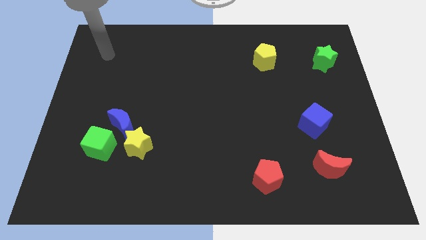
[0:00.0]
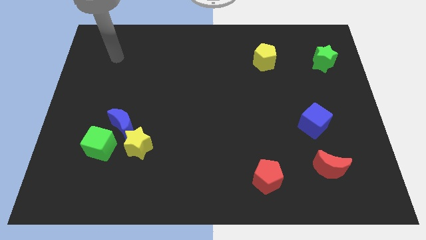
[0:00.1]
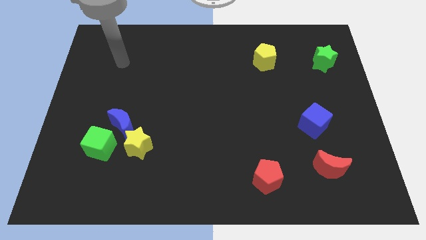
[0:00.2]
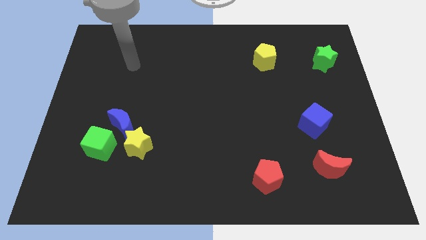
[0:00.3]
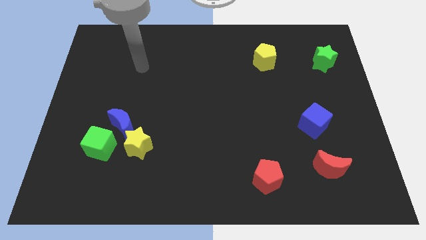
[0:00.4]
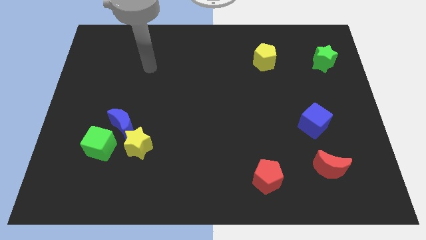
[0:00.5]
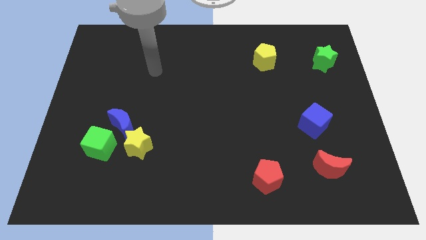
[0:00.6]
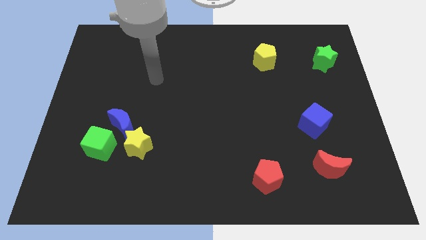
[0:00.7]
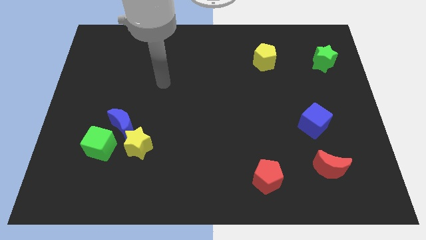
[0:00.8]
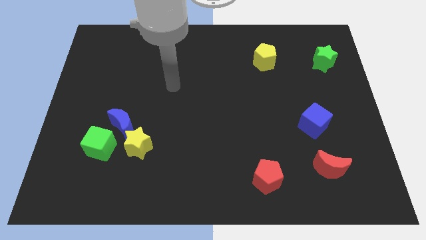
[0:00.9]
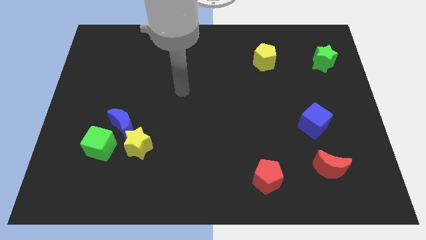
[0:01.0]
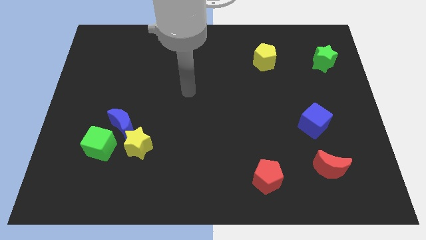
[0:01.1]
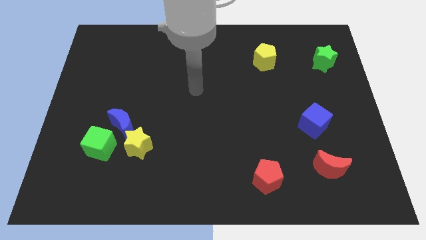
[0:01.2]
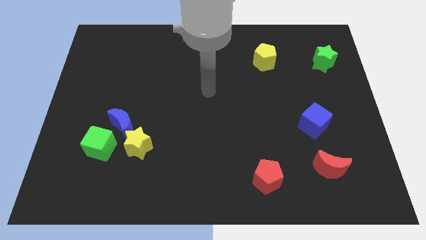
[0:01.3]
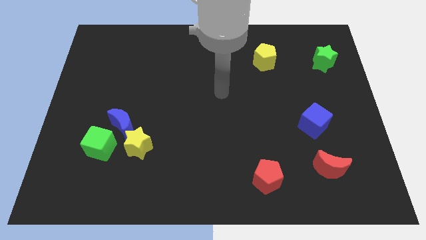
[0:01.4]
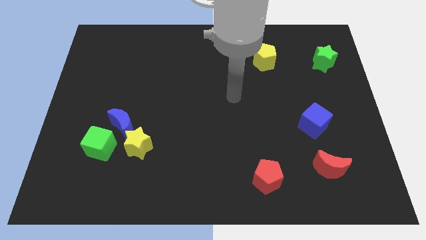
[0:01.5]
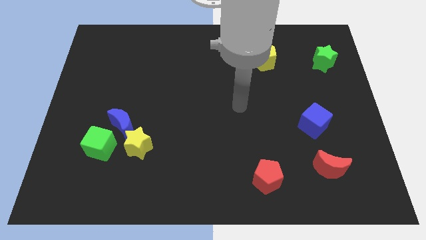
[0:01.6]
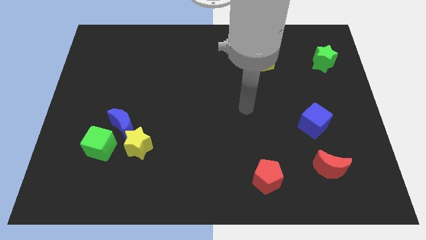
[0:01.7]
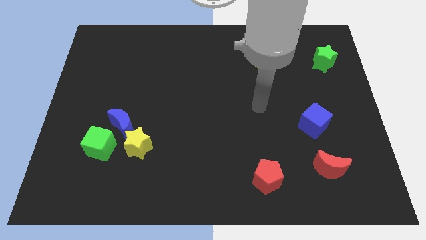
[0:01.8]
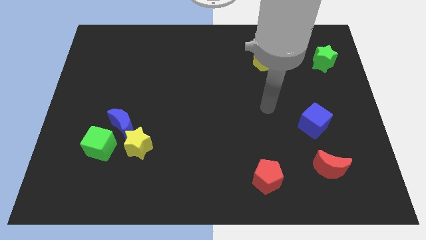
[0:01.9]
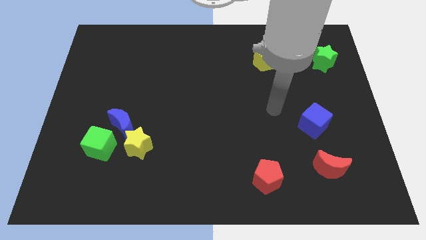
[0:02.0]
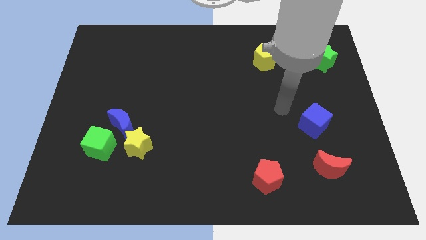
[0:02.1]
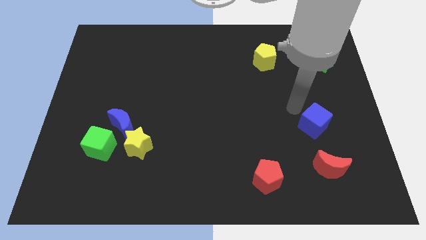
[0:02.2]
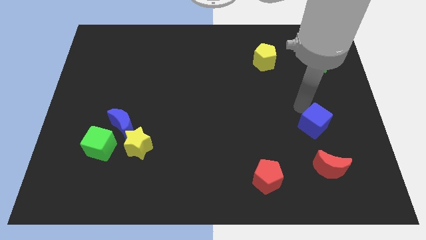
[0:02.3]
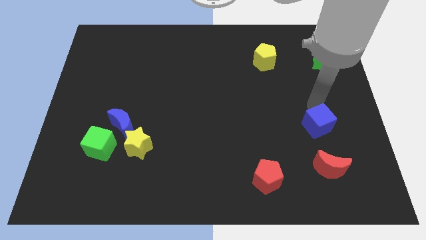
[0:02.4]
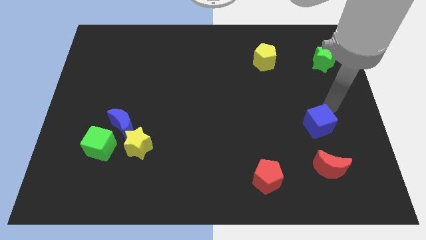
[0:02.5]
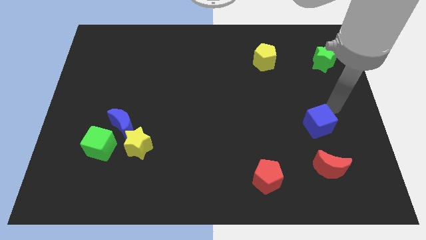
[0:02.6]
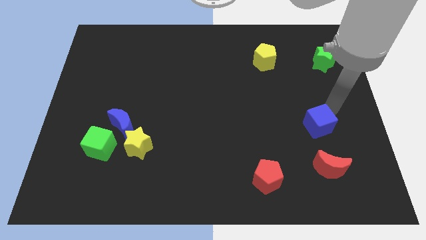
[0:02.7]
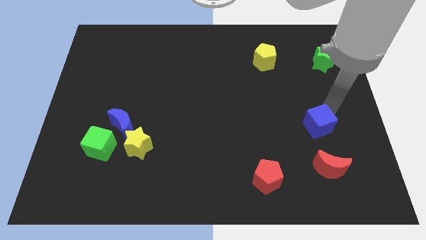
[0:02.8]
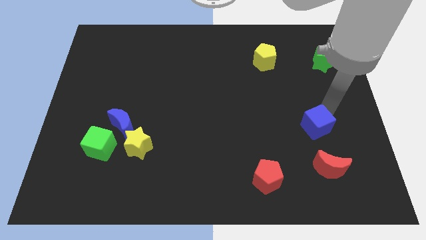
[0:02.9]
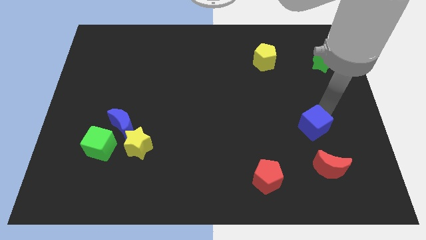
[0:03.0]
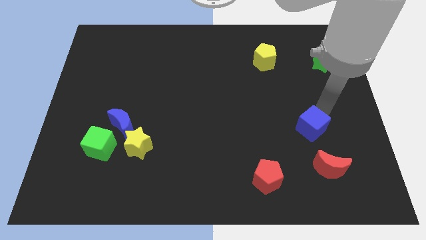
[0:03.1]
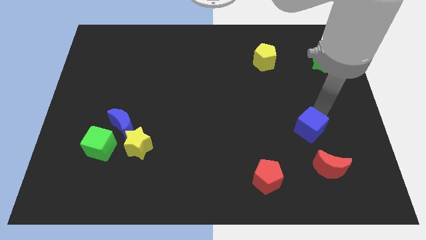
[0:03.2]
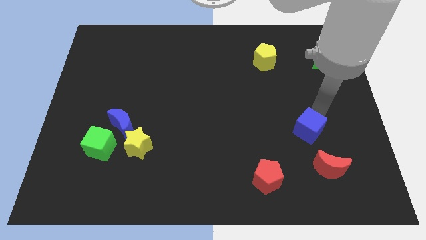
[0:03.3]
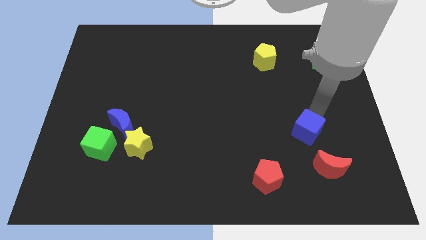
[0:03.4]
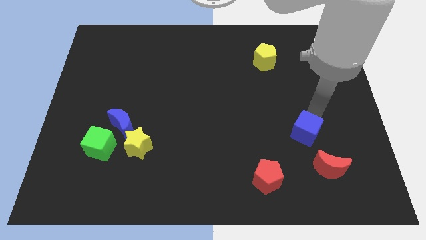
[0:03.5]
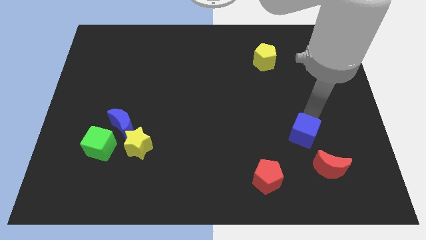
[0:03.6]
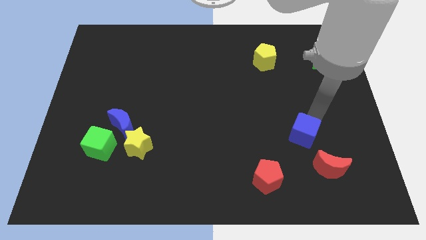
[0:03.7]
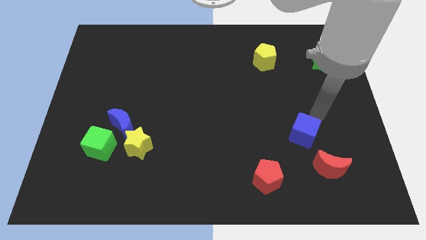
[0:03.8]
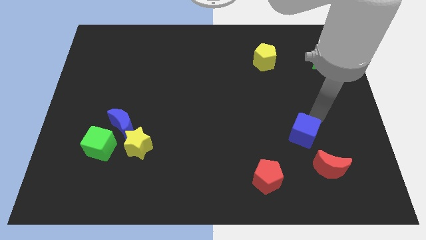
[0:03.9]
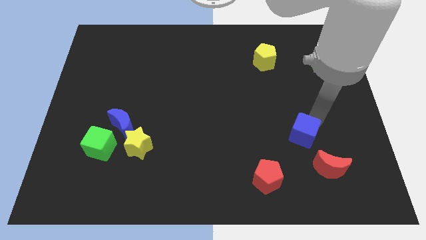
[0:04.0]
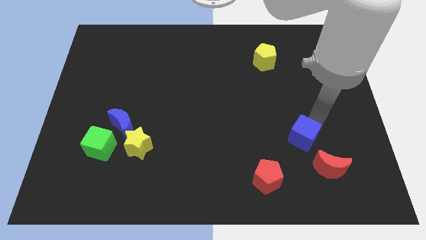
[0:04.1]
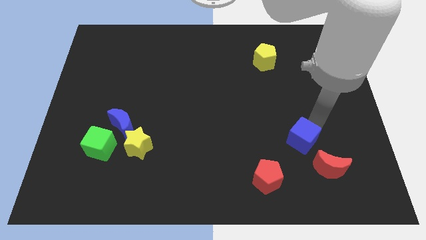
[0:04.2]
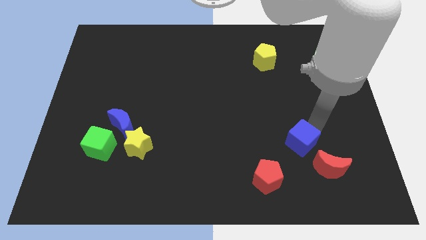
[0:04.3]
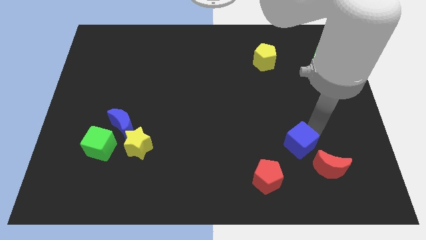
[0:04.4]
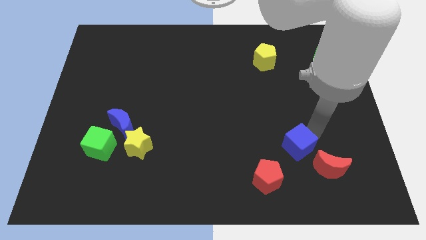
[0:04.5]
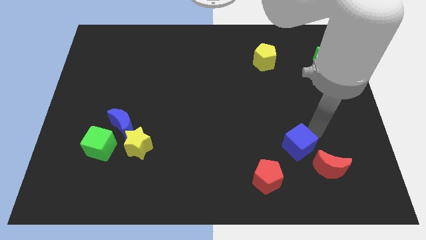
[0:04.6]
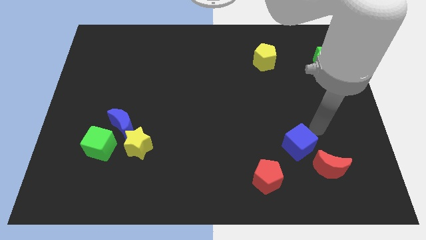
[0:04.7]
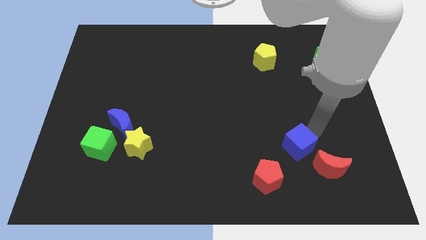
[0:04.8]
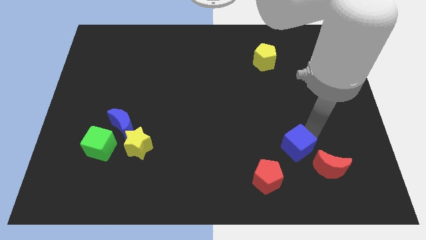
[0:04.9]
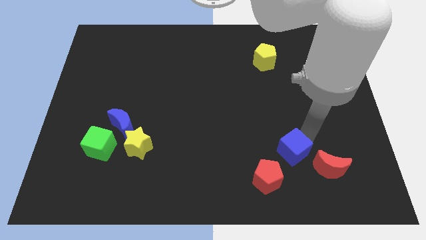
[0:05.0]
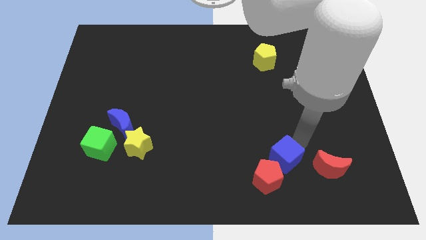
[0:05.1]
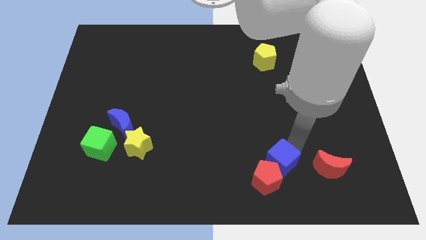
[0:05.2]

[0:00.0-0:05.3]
move the blue cube to the red pentagon

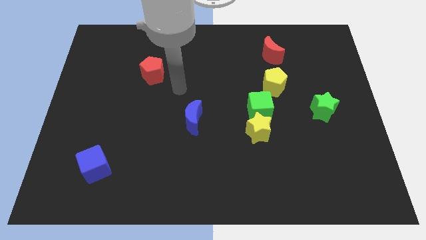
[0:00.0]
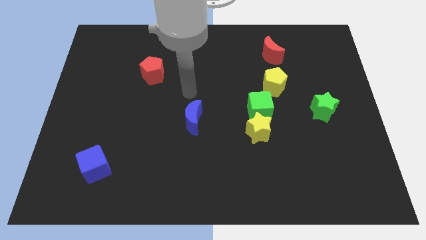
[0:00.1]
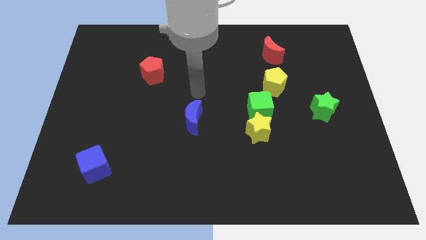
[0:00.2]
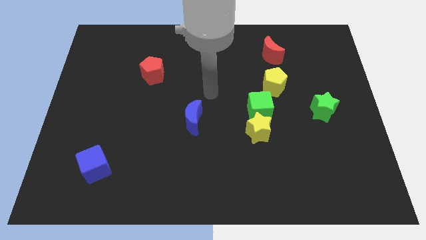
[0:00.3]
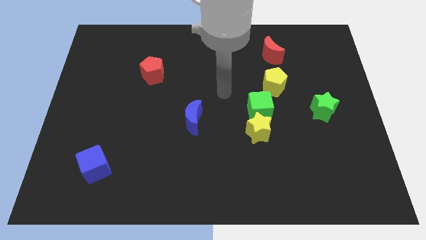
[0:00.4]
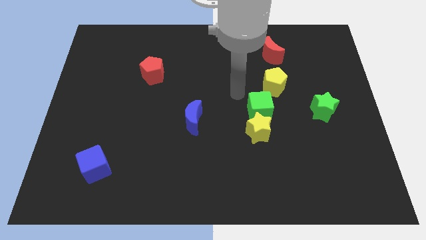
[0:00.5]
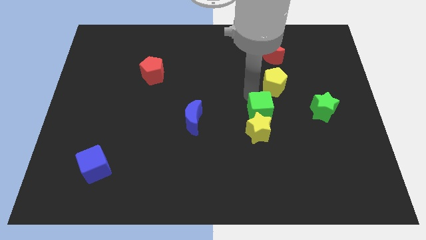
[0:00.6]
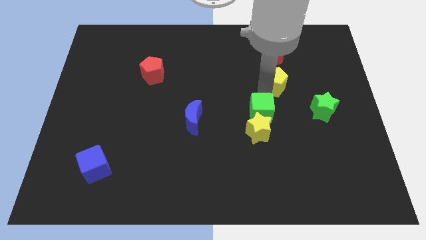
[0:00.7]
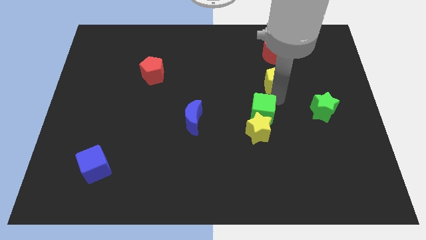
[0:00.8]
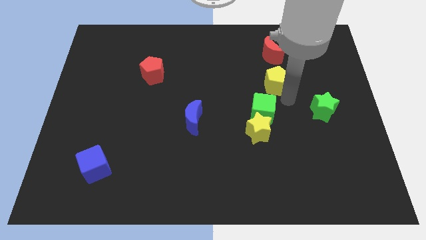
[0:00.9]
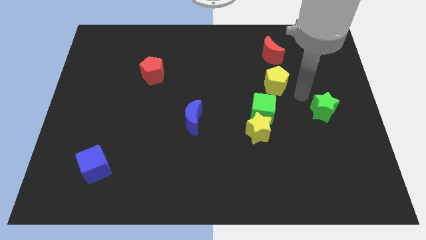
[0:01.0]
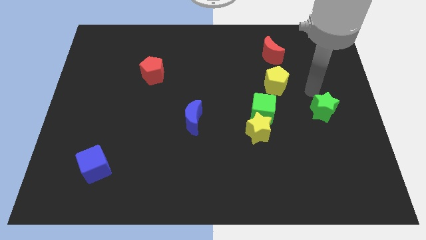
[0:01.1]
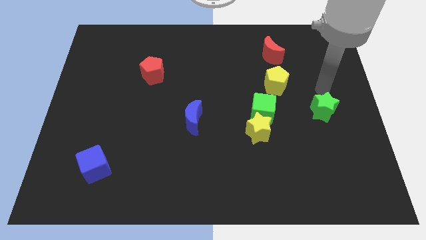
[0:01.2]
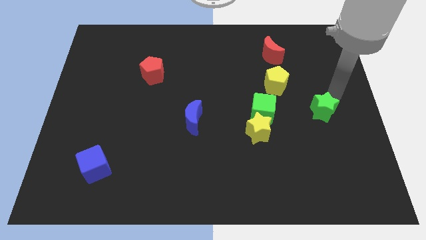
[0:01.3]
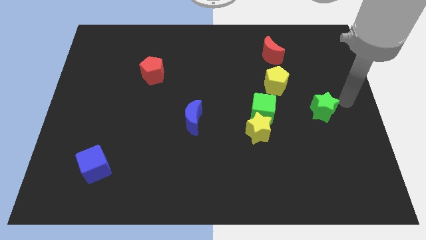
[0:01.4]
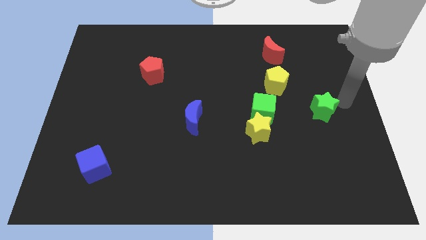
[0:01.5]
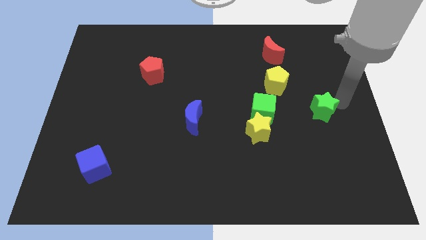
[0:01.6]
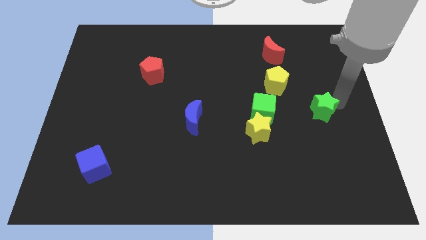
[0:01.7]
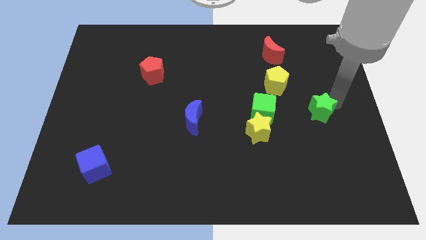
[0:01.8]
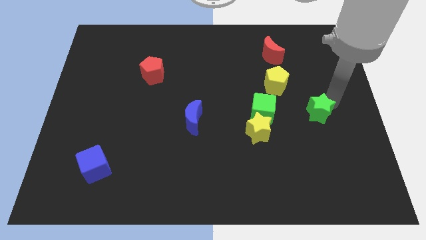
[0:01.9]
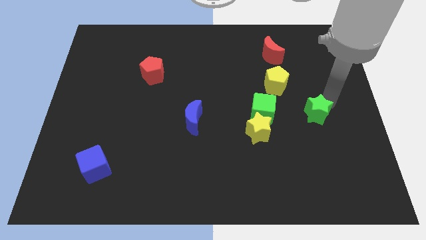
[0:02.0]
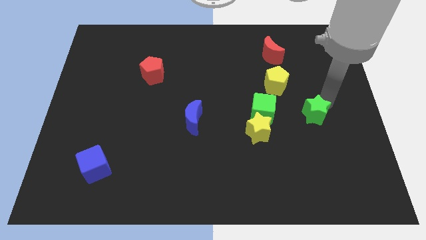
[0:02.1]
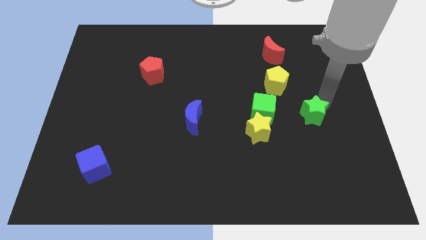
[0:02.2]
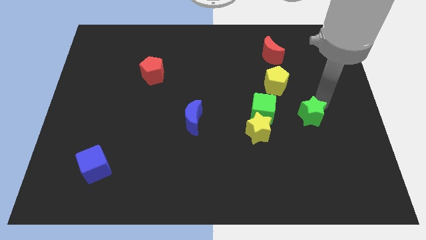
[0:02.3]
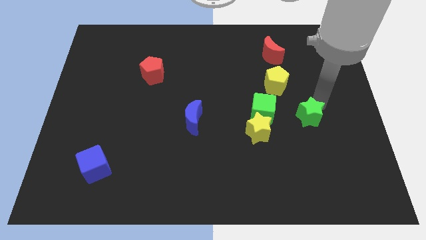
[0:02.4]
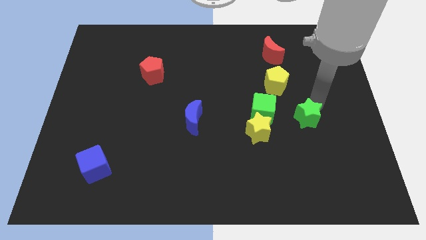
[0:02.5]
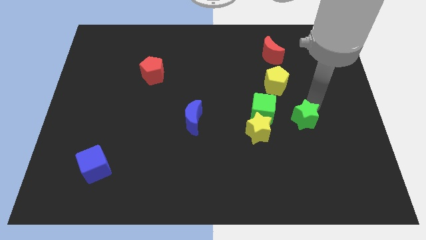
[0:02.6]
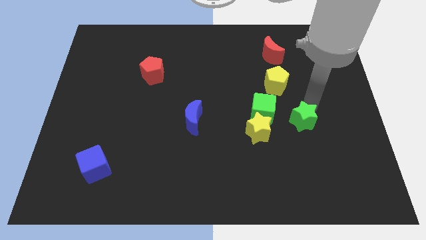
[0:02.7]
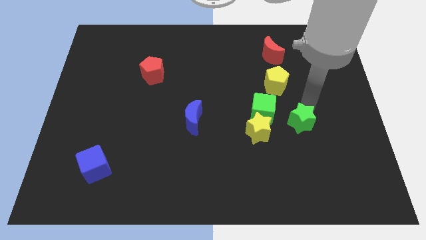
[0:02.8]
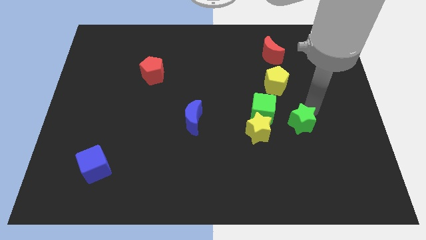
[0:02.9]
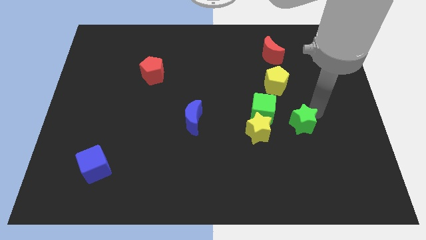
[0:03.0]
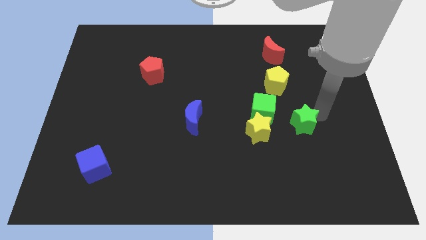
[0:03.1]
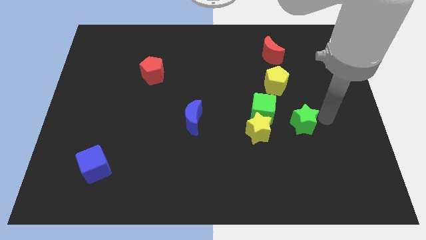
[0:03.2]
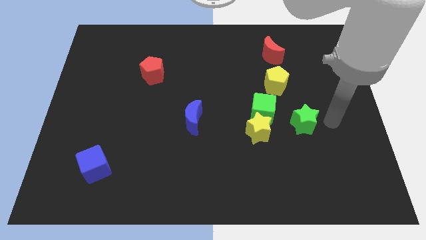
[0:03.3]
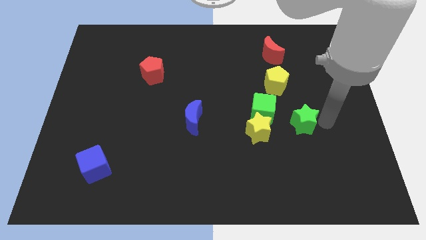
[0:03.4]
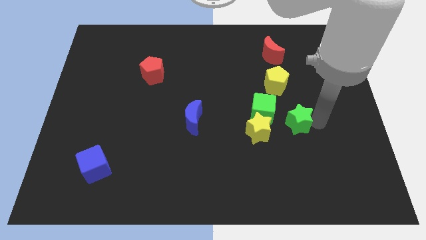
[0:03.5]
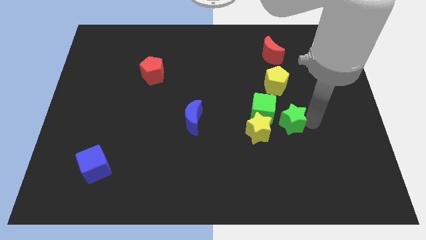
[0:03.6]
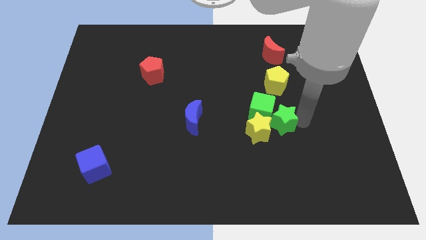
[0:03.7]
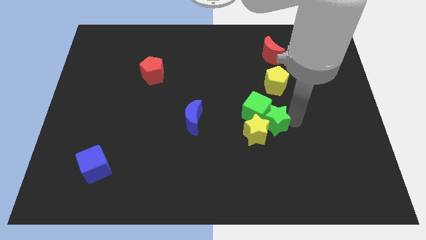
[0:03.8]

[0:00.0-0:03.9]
put the green star to the yellow star
